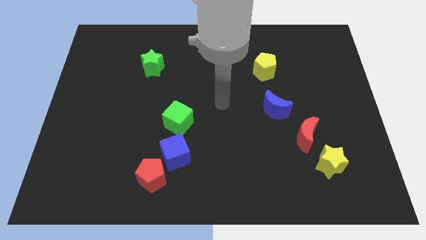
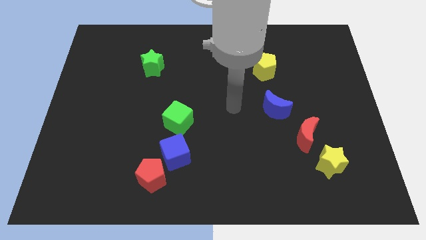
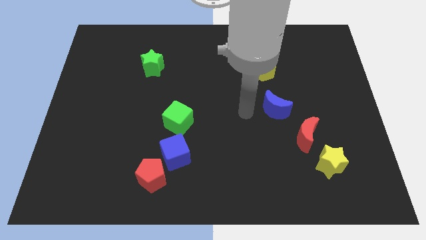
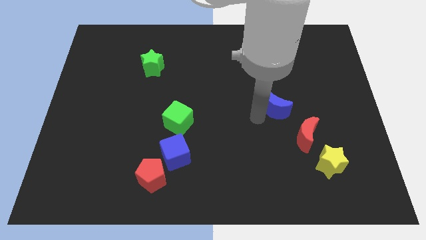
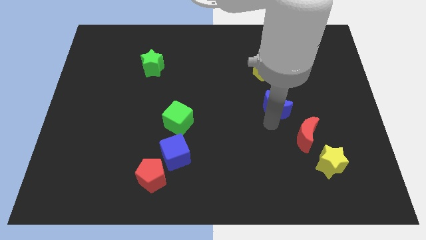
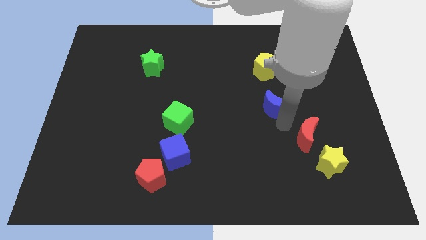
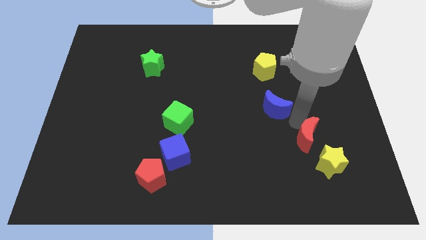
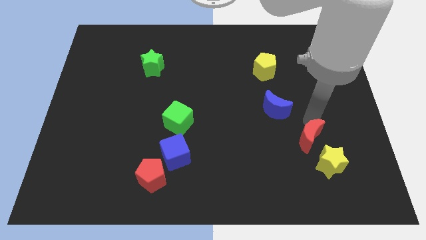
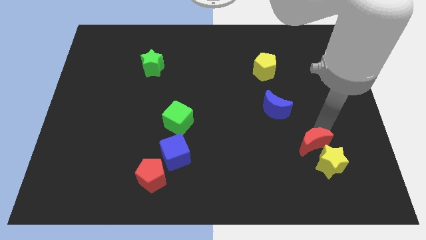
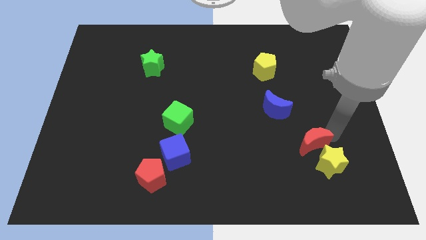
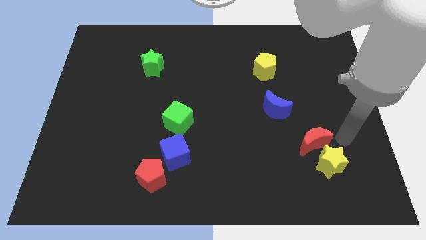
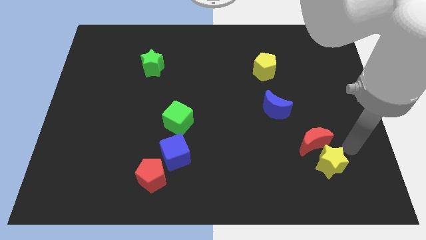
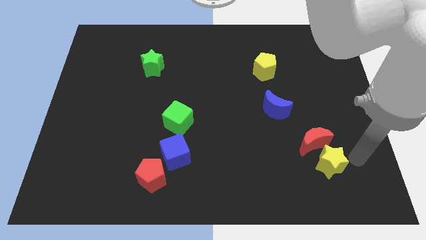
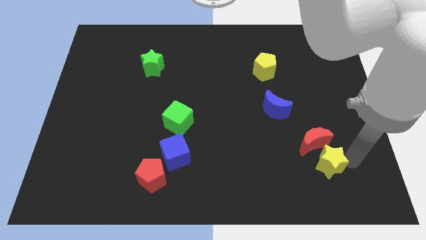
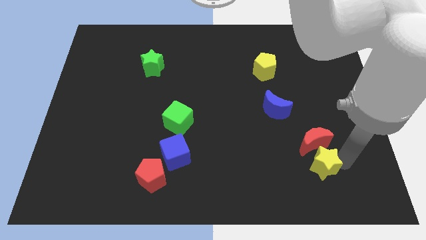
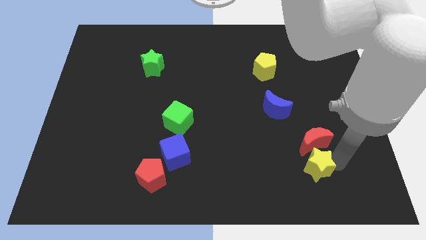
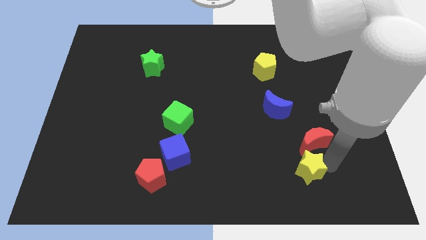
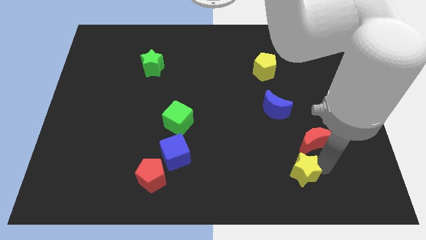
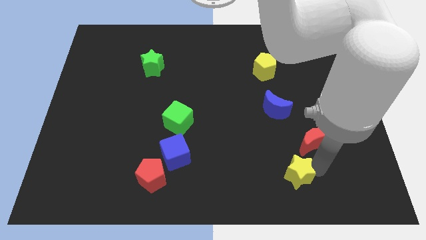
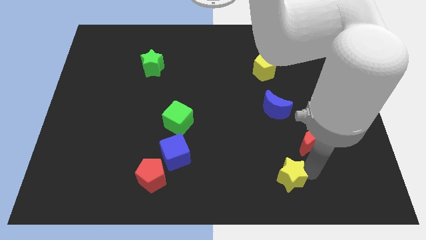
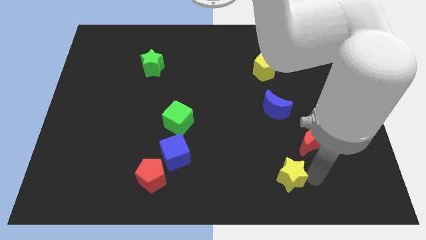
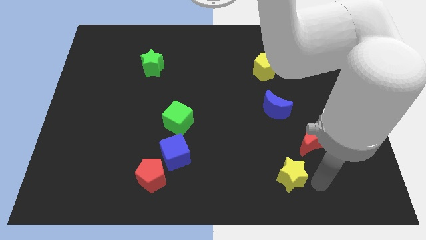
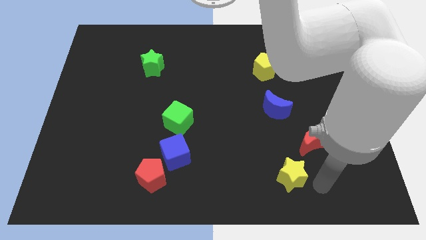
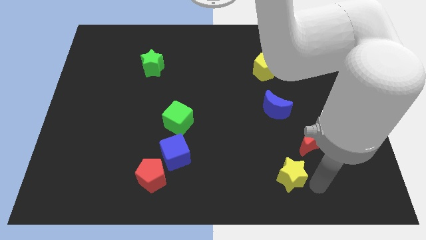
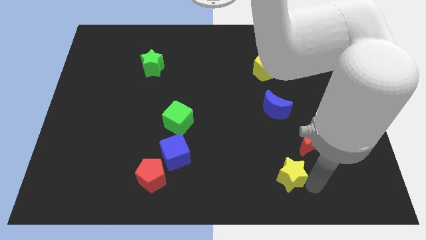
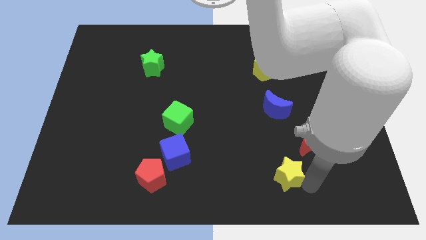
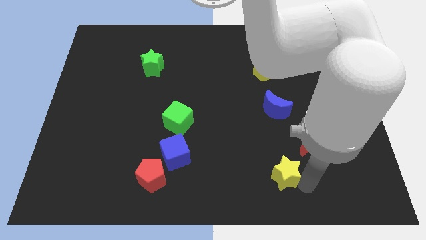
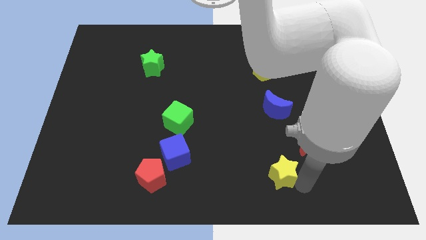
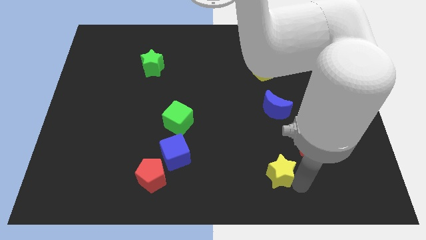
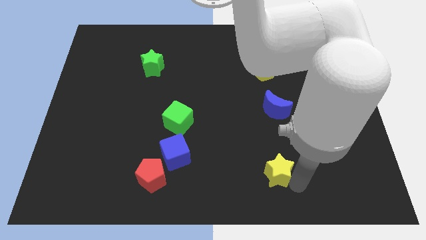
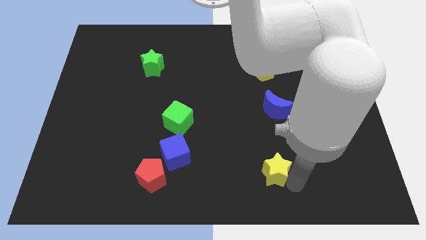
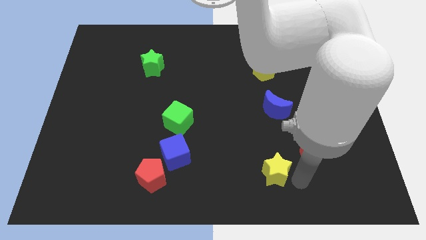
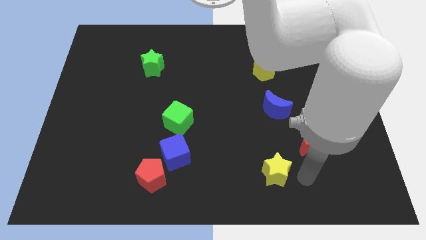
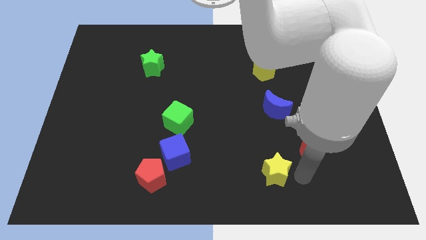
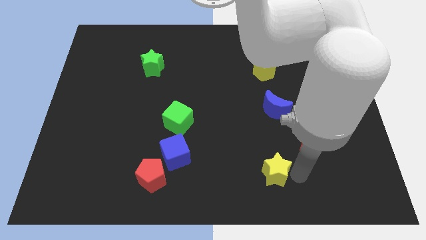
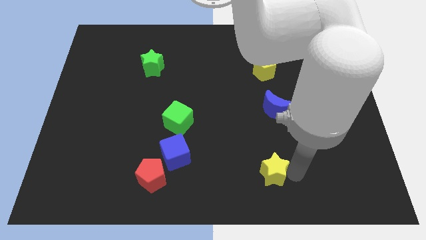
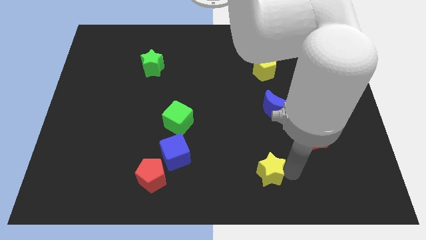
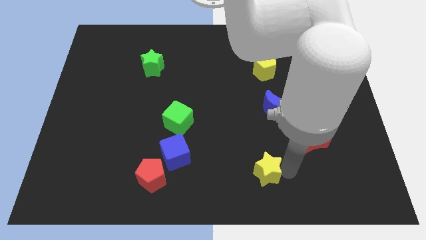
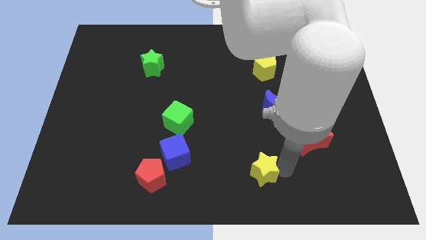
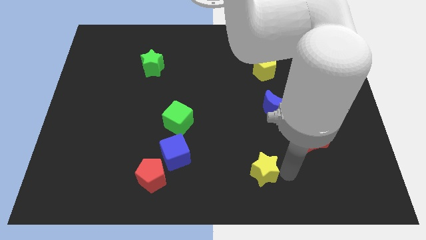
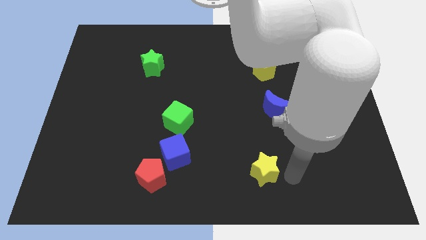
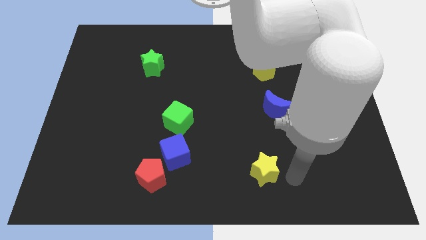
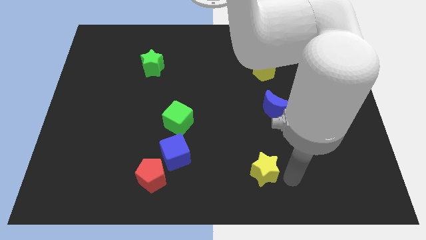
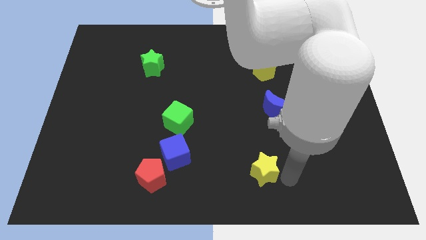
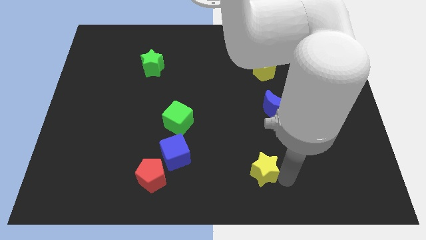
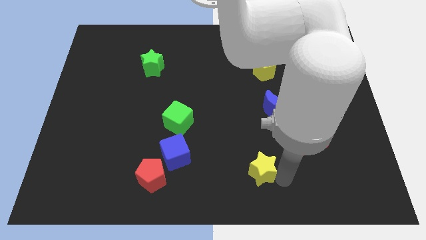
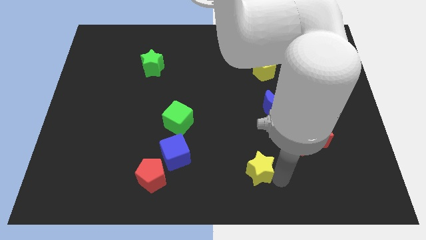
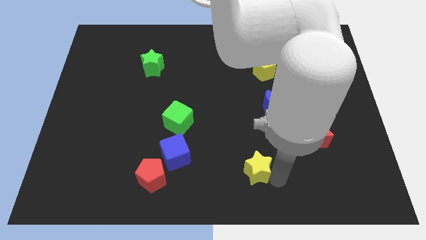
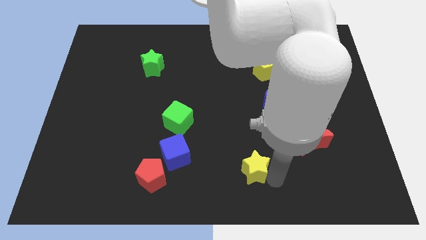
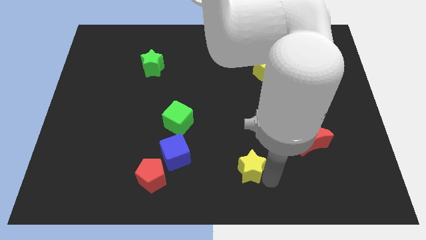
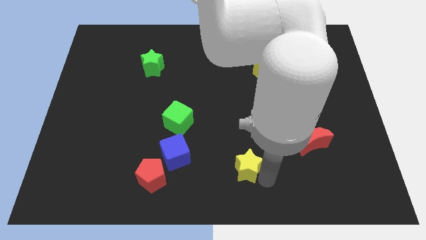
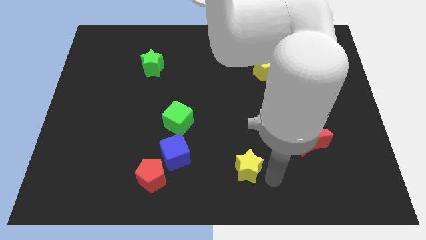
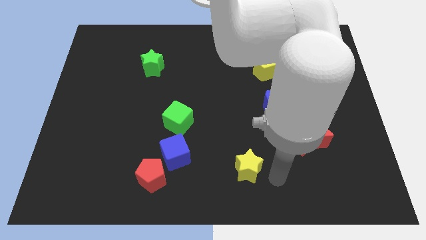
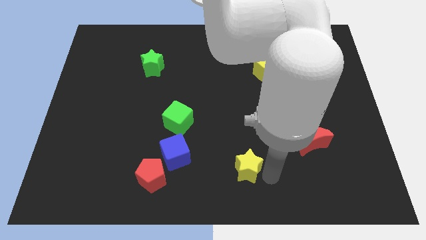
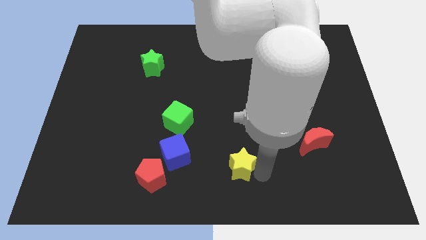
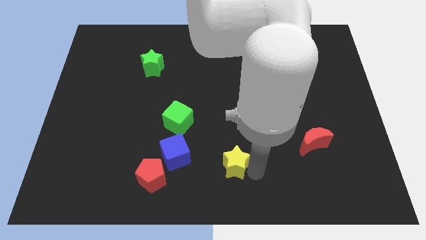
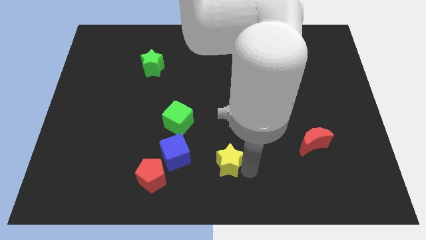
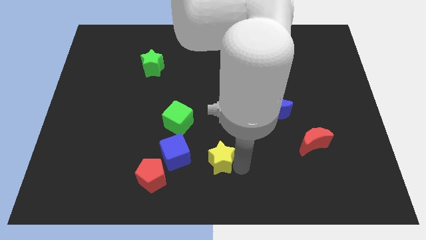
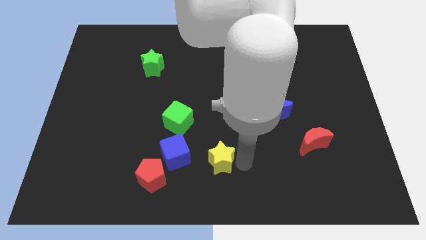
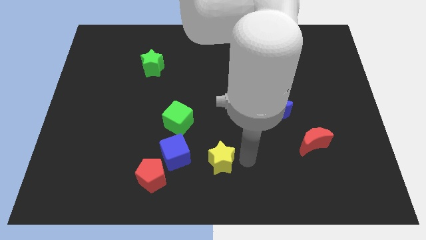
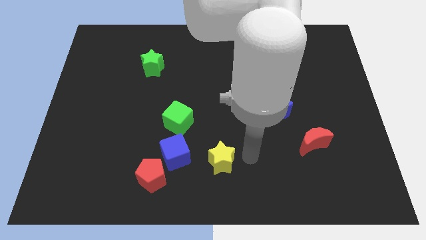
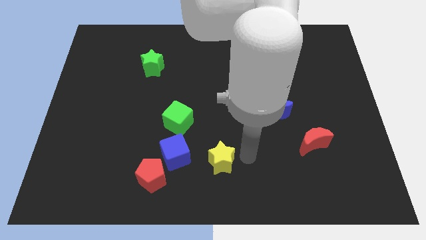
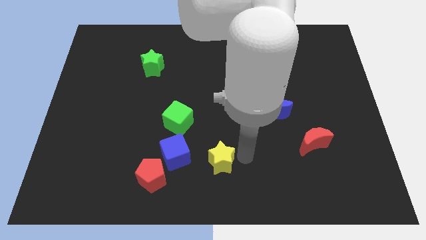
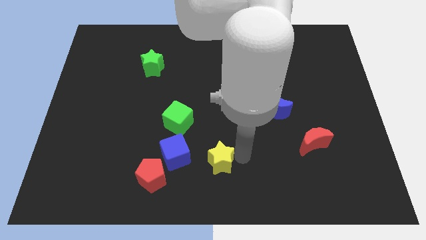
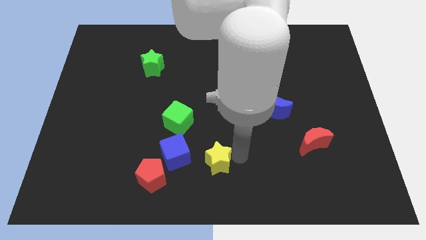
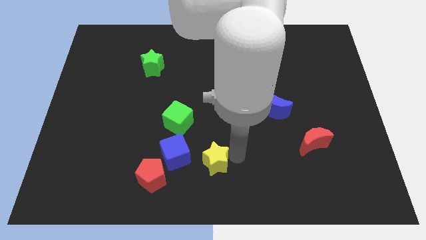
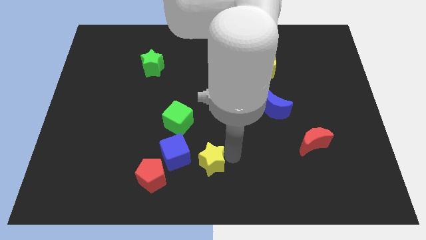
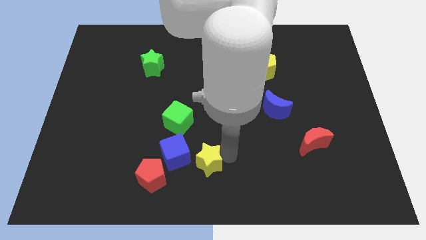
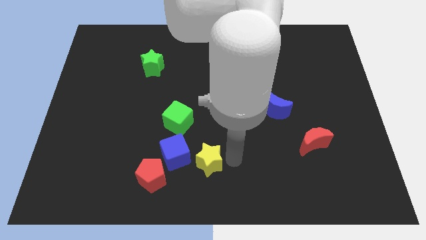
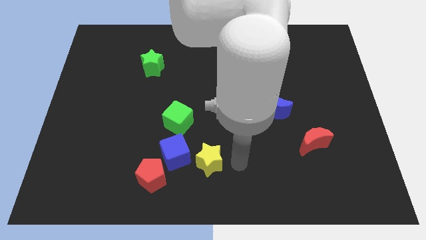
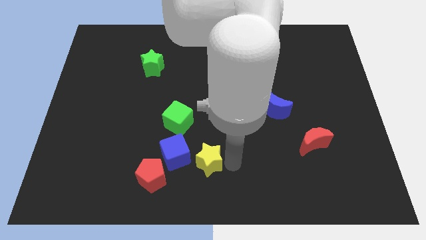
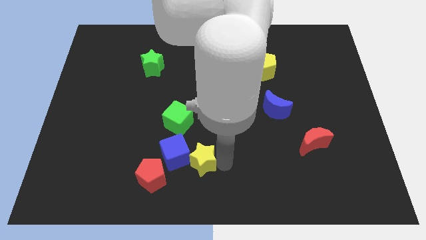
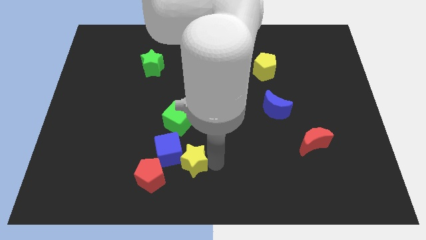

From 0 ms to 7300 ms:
put the yellow star to the bottom of the green cube

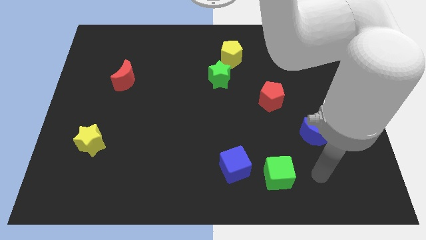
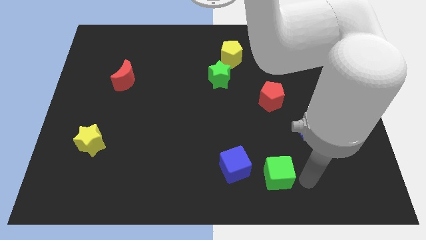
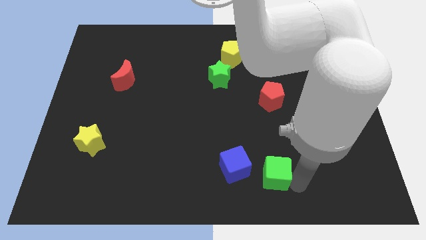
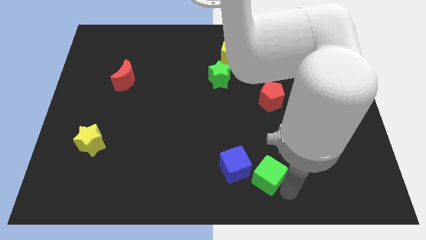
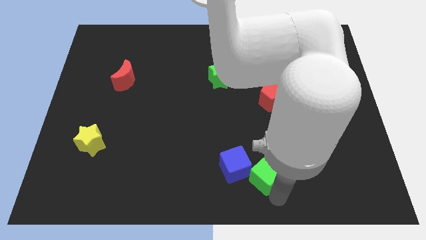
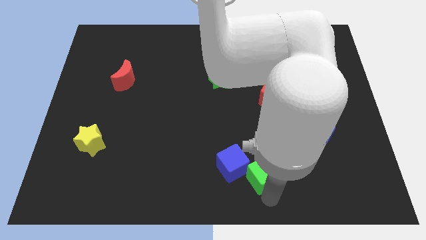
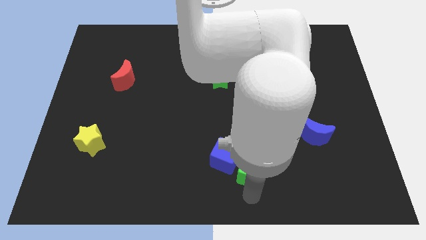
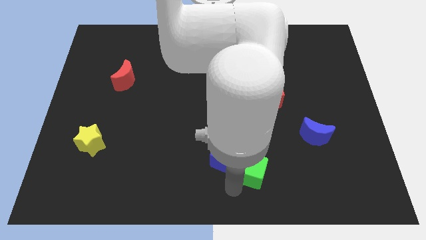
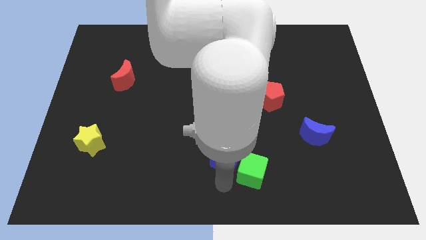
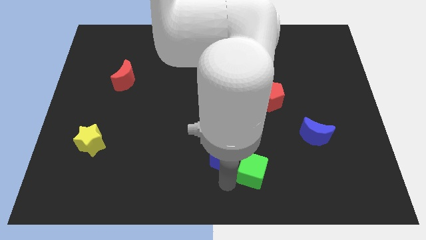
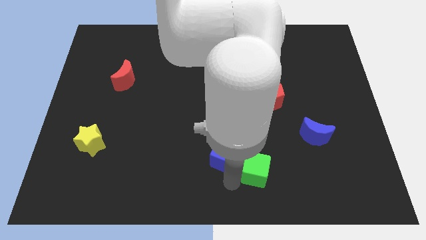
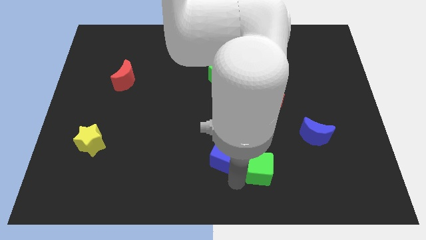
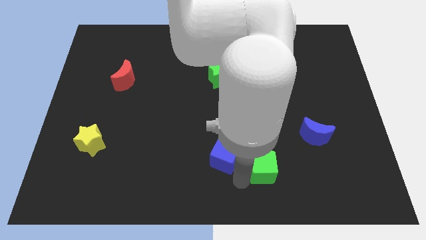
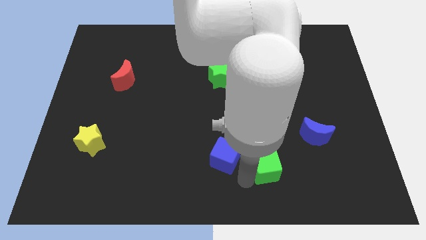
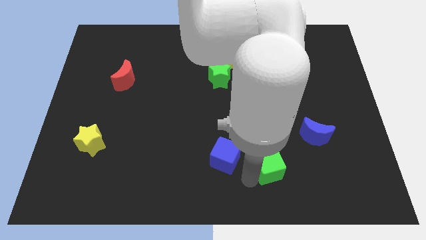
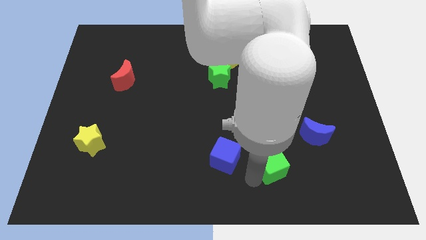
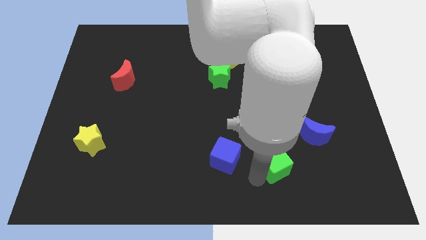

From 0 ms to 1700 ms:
push the green cube to the bottom left side of the blue moon
